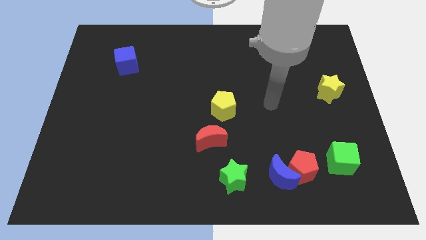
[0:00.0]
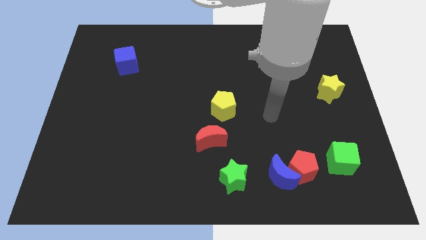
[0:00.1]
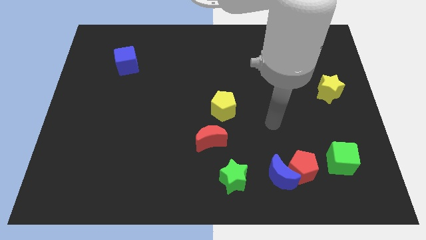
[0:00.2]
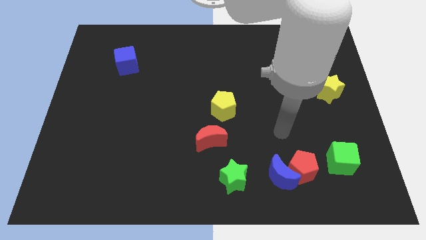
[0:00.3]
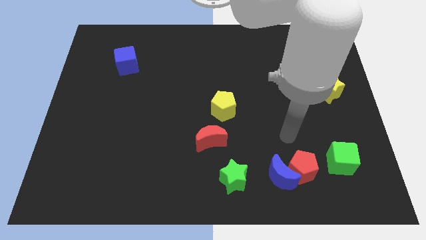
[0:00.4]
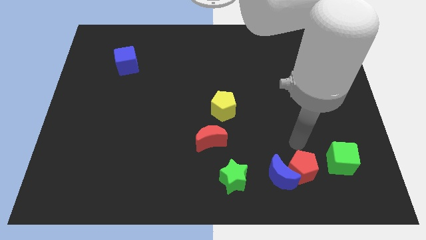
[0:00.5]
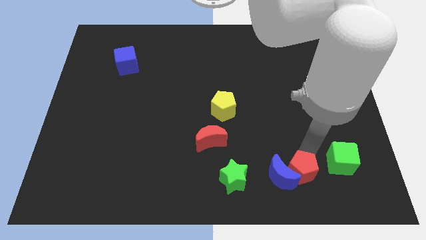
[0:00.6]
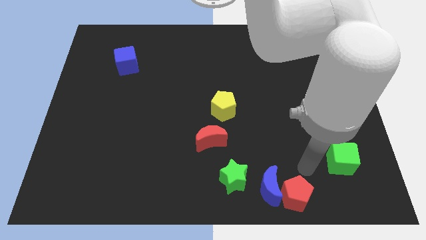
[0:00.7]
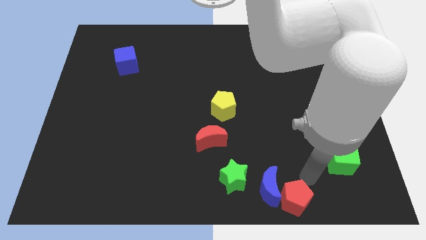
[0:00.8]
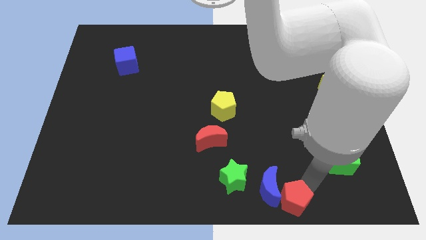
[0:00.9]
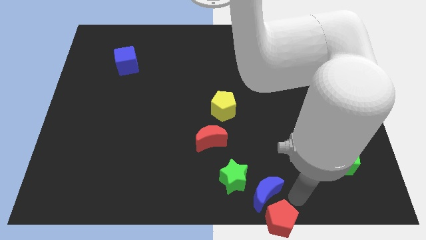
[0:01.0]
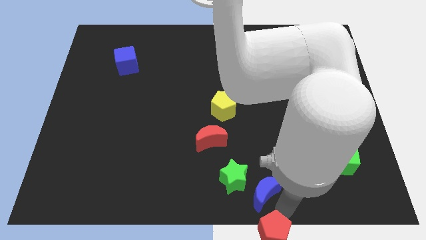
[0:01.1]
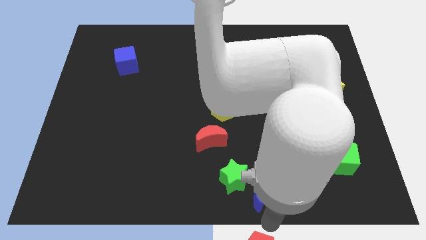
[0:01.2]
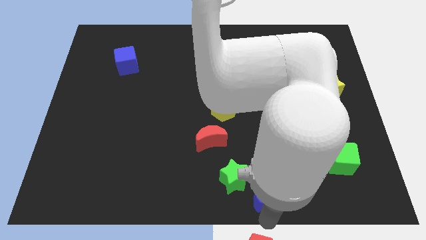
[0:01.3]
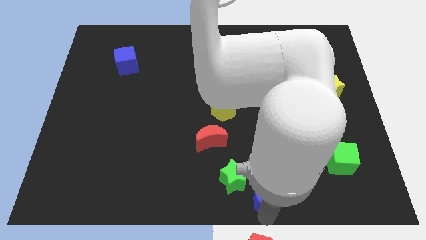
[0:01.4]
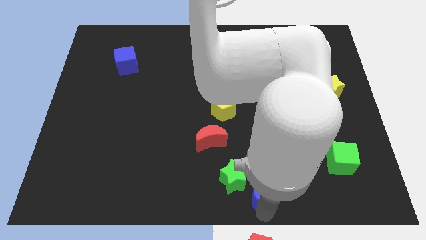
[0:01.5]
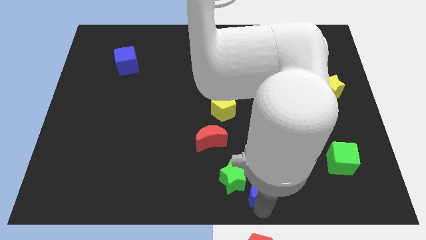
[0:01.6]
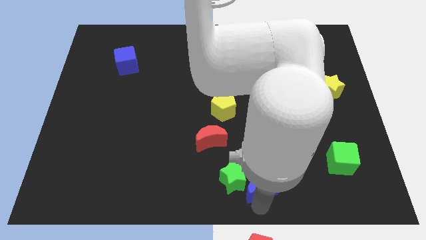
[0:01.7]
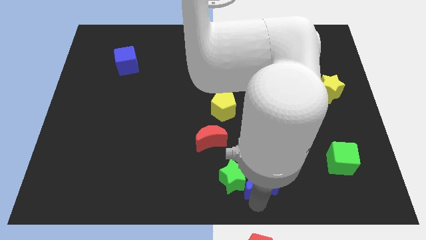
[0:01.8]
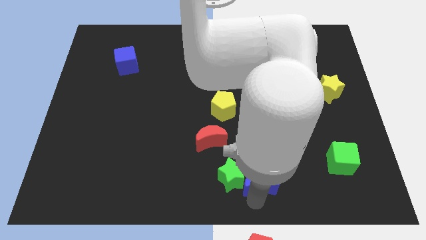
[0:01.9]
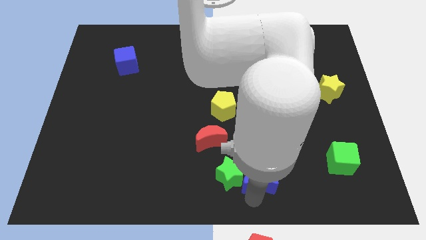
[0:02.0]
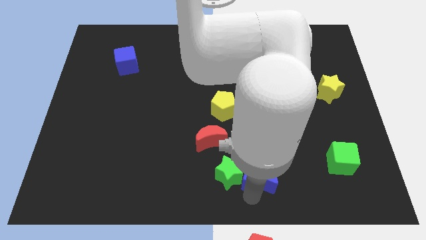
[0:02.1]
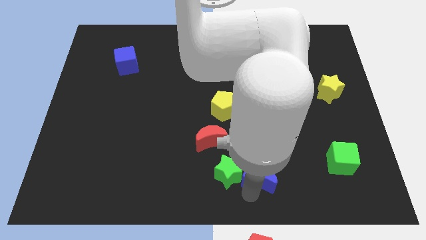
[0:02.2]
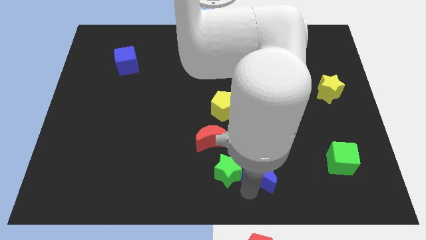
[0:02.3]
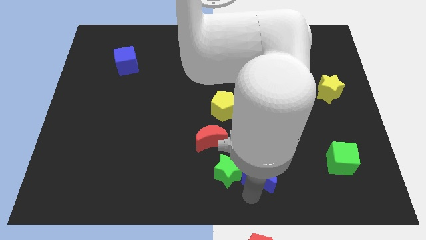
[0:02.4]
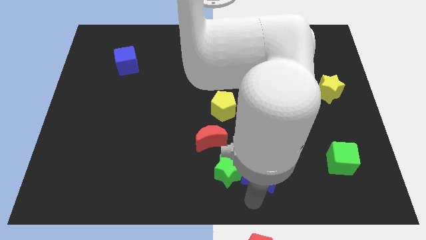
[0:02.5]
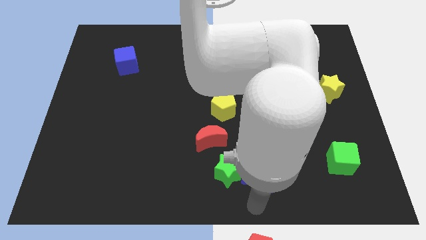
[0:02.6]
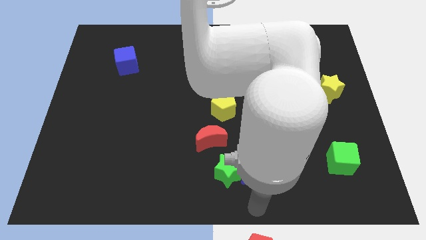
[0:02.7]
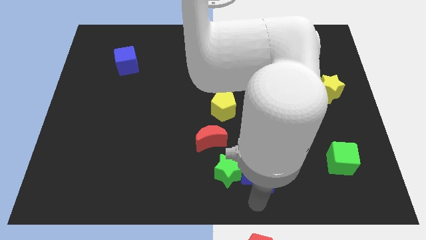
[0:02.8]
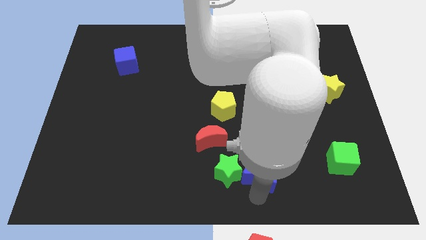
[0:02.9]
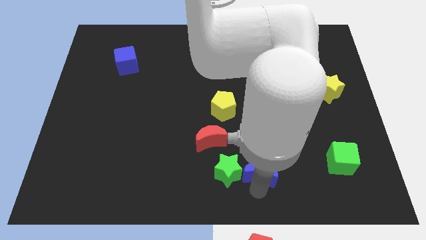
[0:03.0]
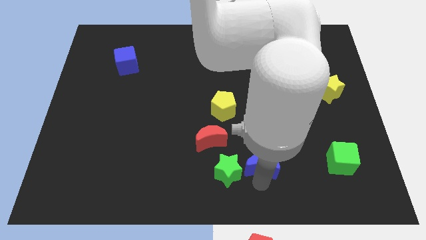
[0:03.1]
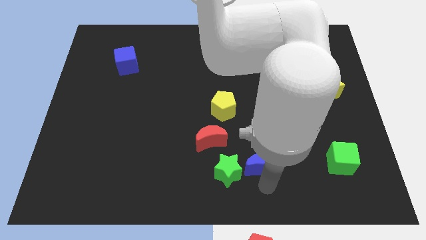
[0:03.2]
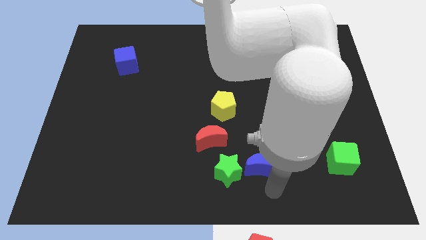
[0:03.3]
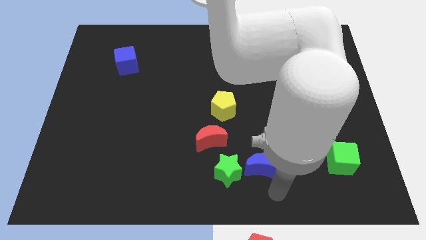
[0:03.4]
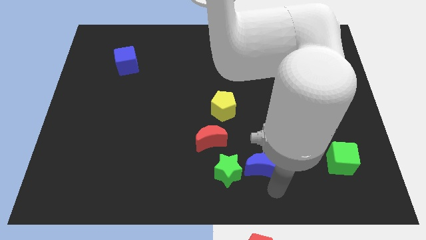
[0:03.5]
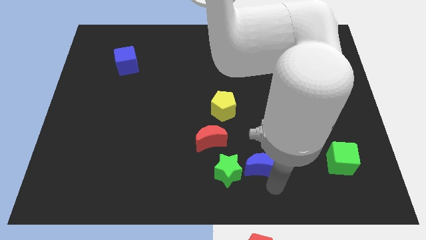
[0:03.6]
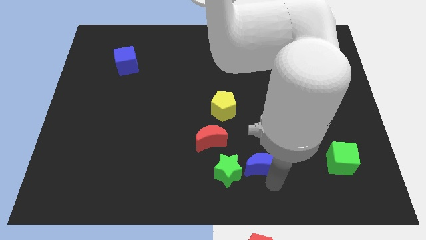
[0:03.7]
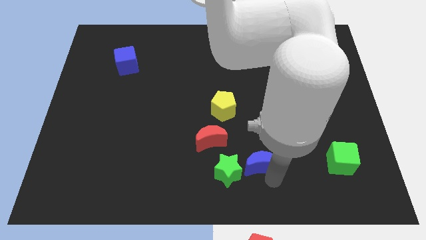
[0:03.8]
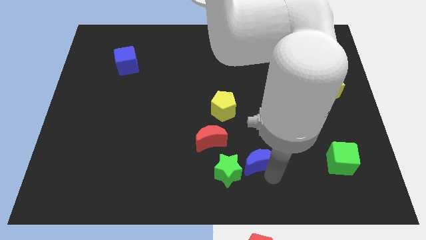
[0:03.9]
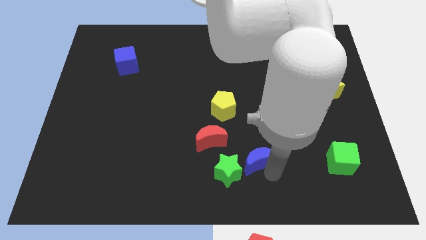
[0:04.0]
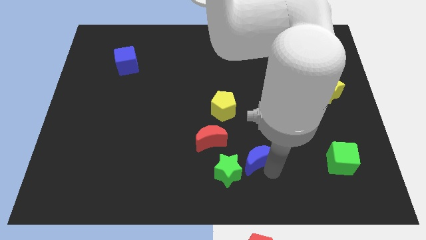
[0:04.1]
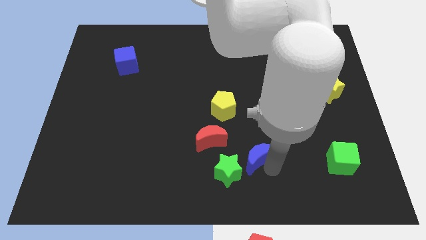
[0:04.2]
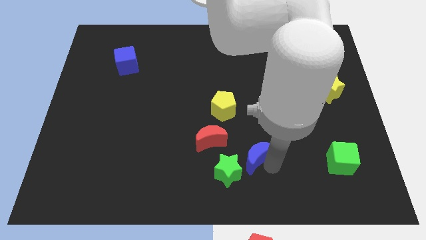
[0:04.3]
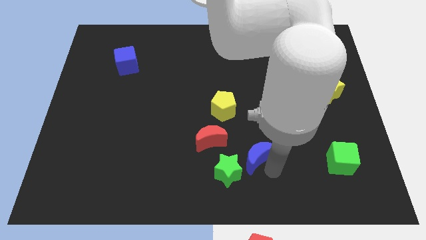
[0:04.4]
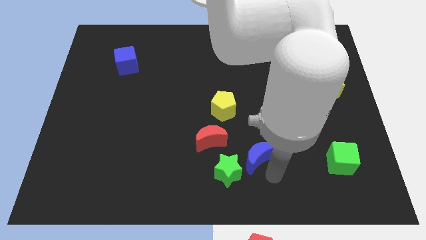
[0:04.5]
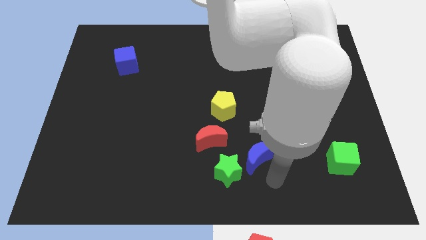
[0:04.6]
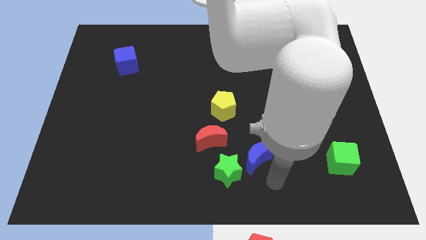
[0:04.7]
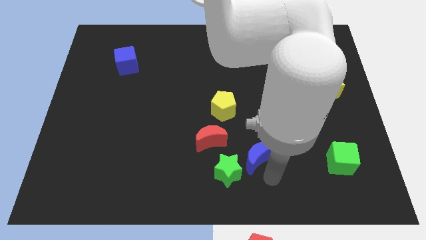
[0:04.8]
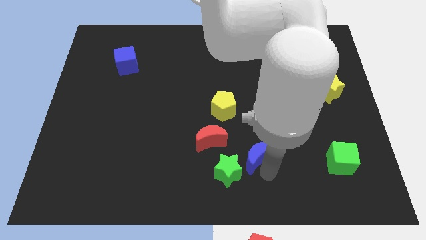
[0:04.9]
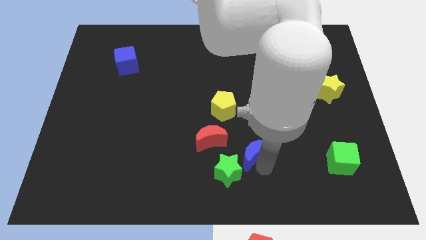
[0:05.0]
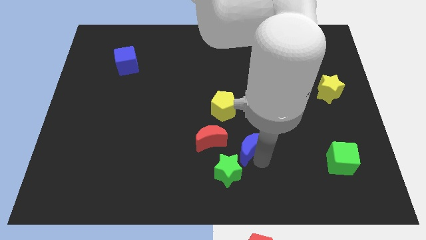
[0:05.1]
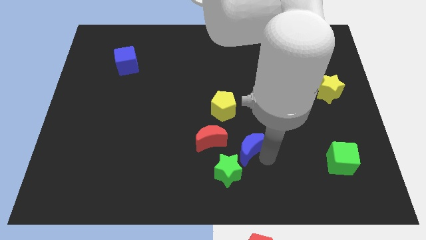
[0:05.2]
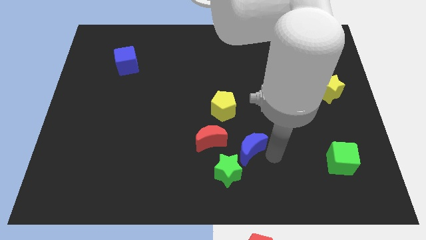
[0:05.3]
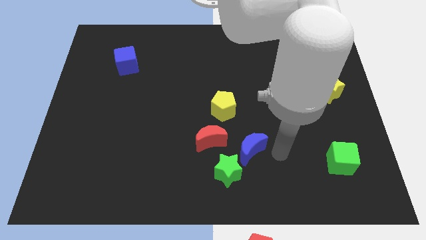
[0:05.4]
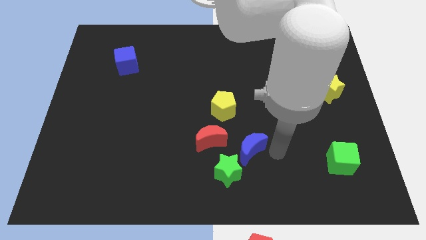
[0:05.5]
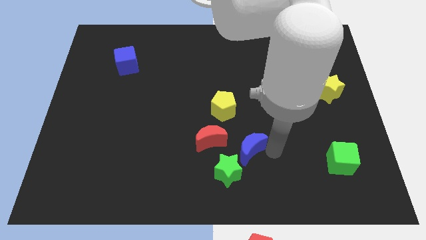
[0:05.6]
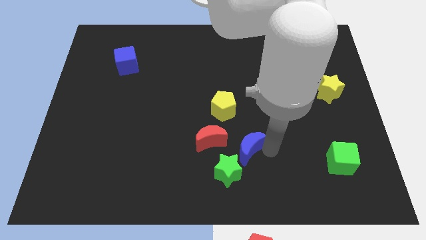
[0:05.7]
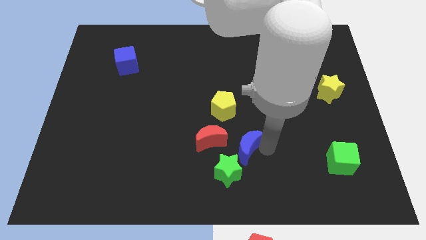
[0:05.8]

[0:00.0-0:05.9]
slide the blue moon to the bottom of the yellow pentagon
